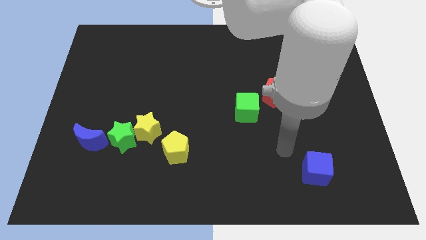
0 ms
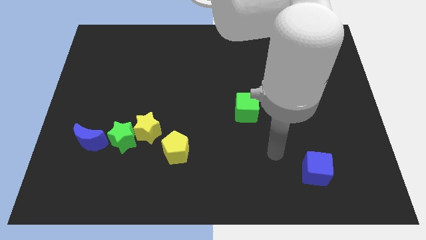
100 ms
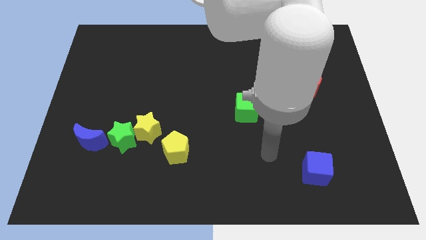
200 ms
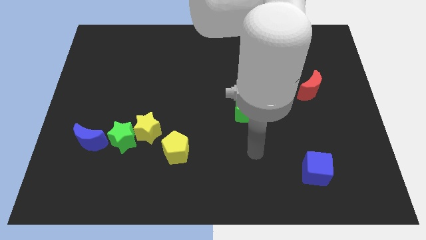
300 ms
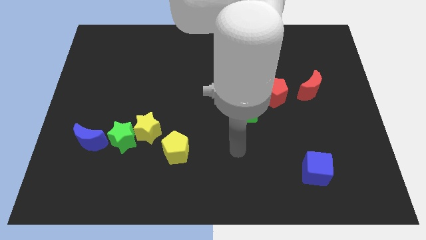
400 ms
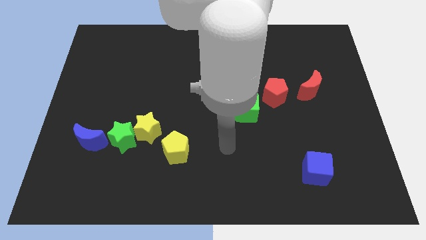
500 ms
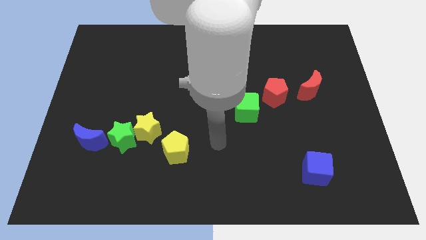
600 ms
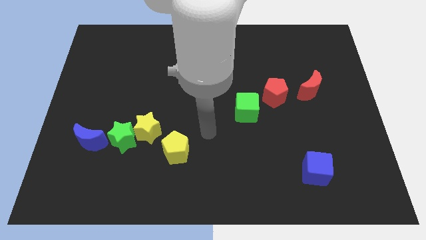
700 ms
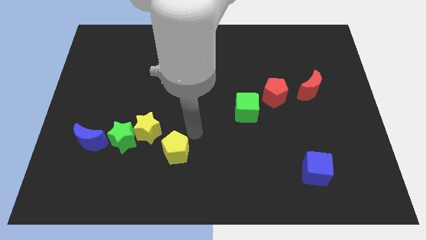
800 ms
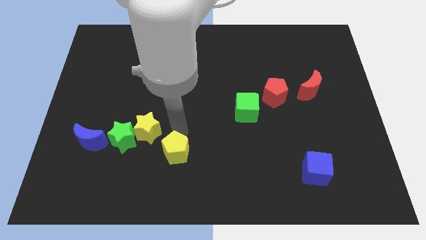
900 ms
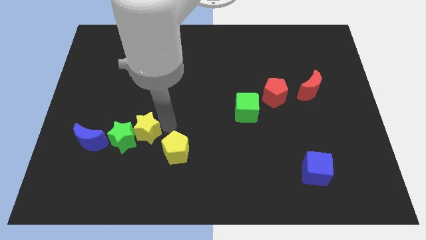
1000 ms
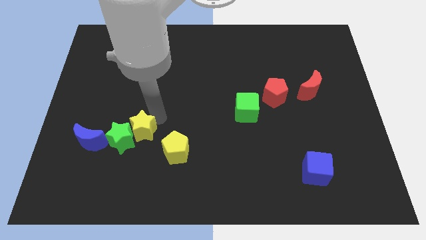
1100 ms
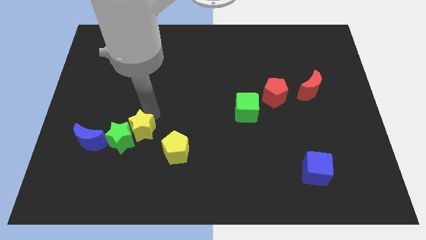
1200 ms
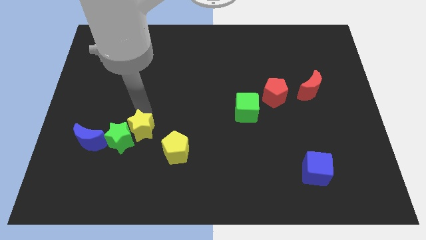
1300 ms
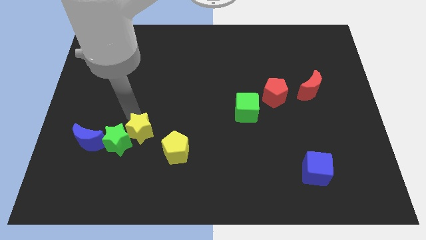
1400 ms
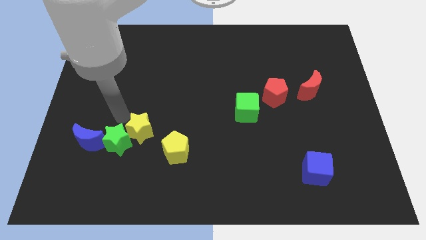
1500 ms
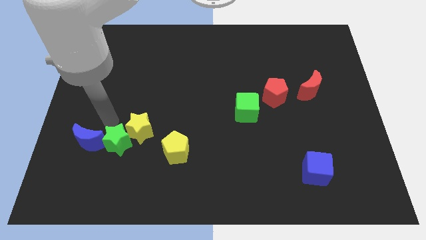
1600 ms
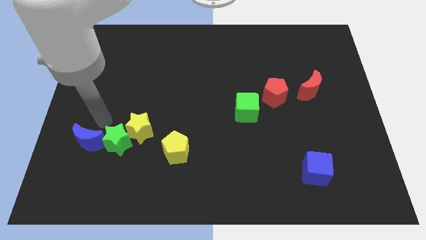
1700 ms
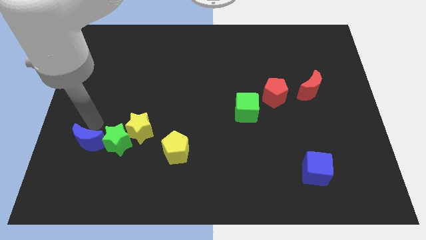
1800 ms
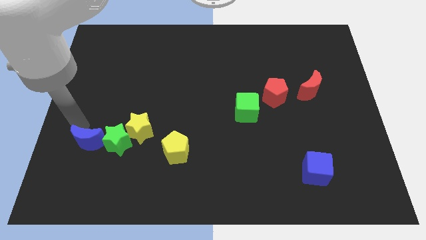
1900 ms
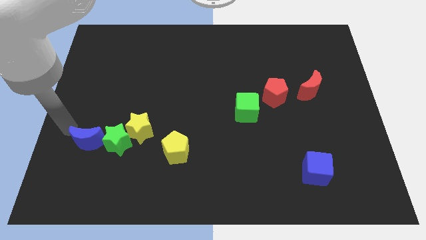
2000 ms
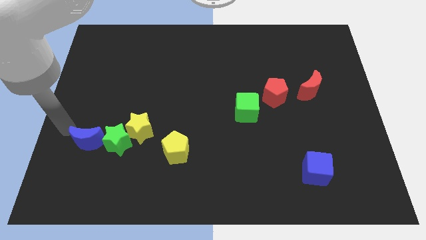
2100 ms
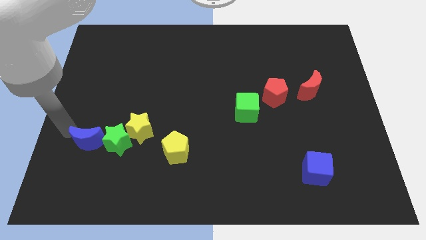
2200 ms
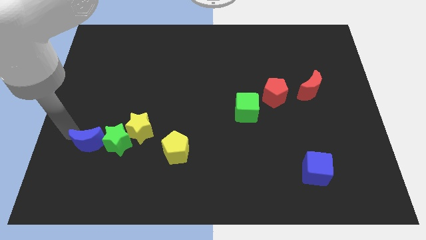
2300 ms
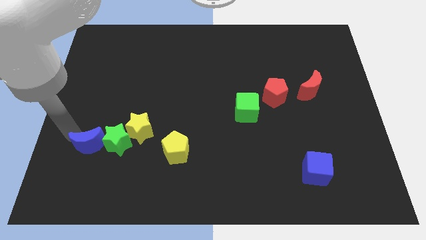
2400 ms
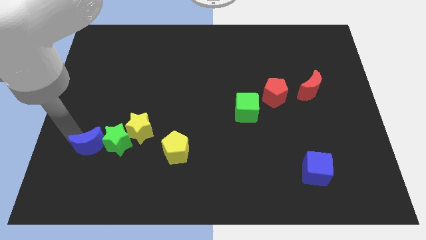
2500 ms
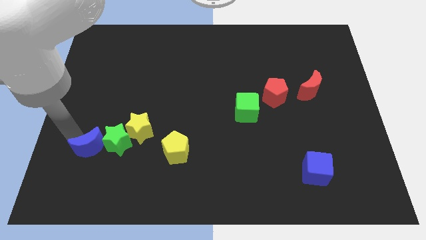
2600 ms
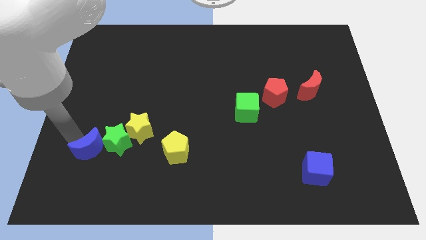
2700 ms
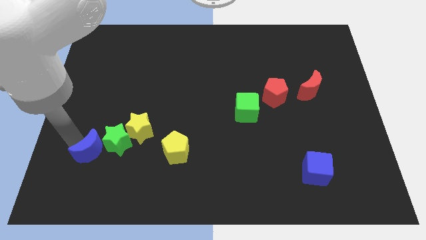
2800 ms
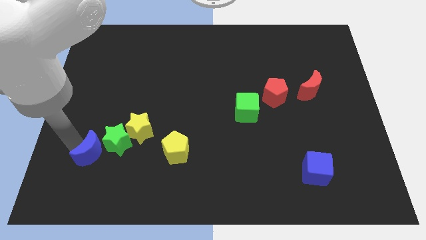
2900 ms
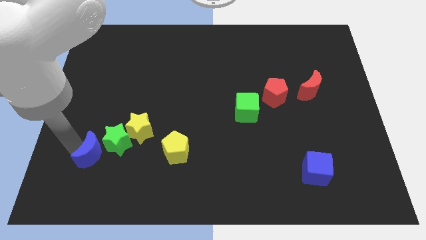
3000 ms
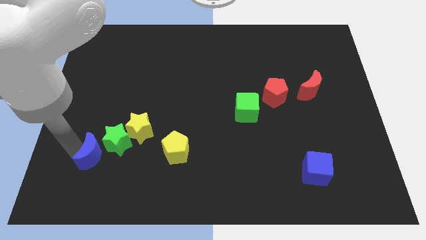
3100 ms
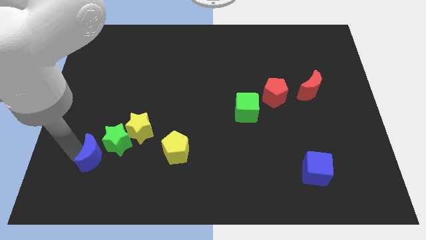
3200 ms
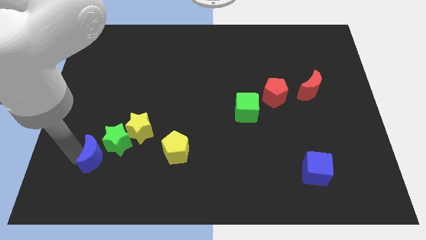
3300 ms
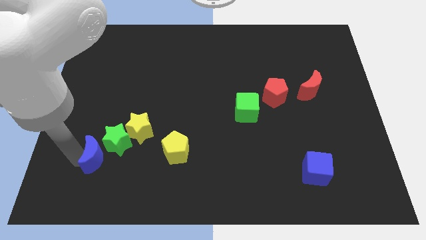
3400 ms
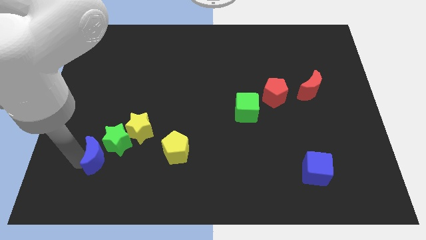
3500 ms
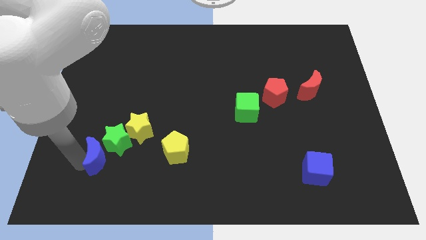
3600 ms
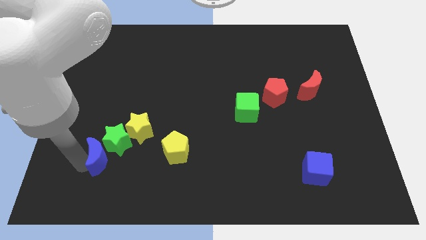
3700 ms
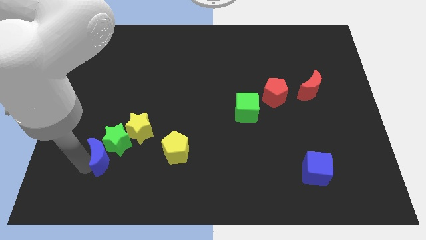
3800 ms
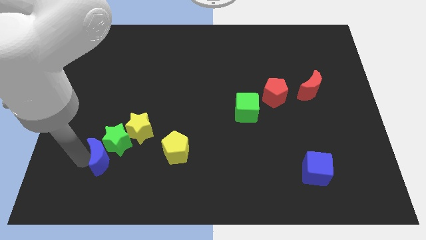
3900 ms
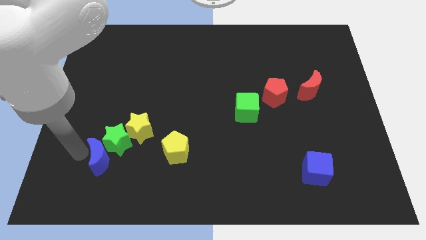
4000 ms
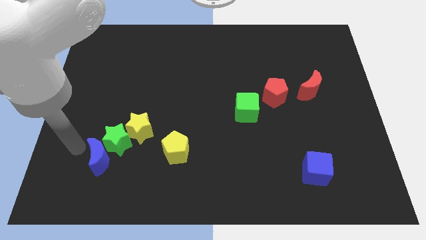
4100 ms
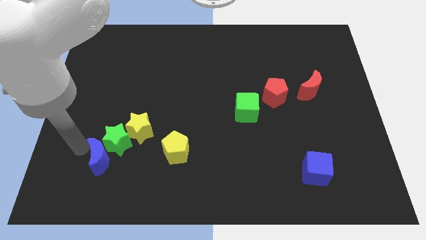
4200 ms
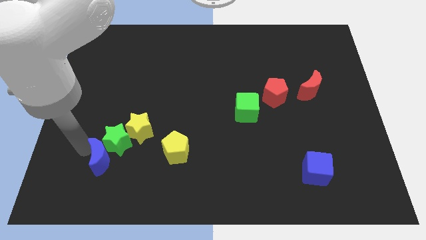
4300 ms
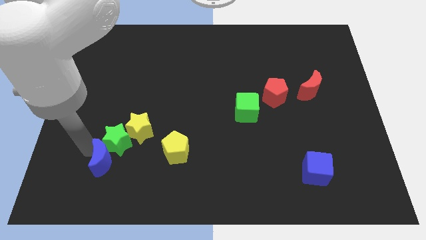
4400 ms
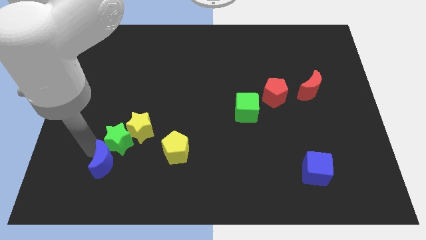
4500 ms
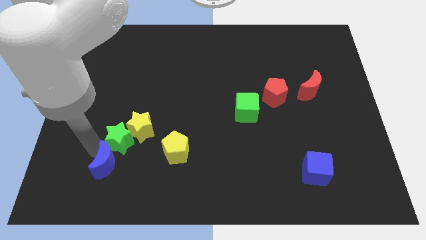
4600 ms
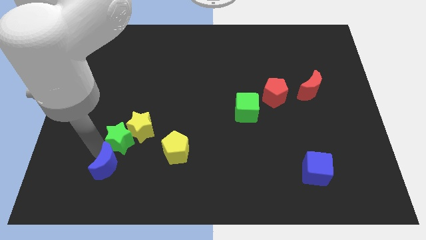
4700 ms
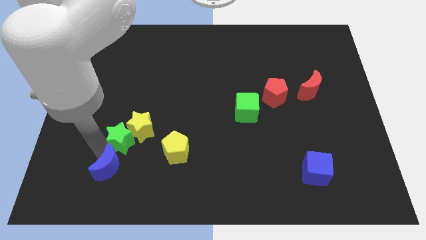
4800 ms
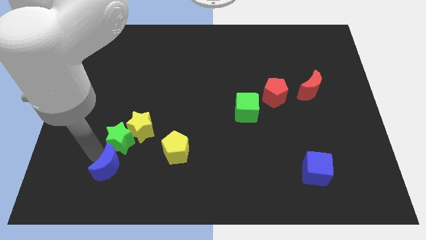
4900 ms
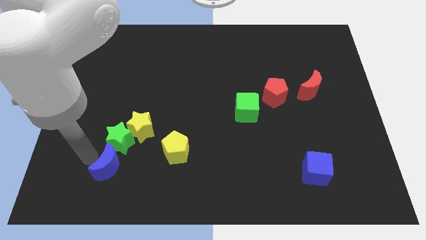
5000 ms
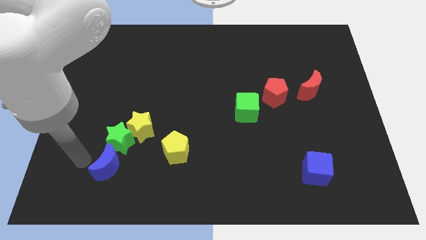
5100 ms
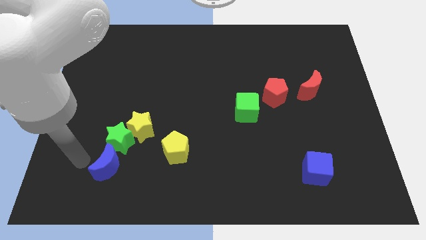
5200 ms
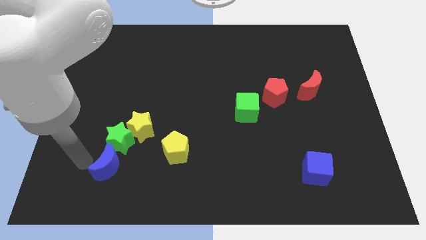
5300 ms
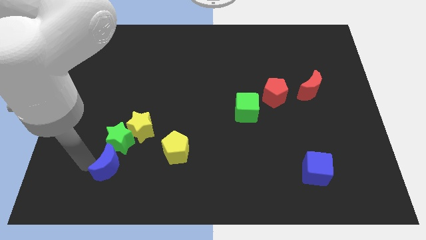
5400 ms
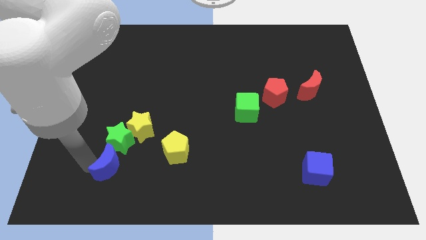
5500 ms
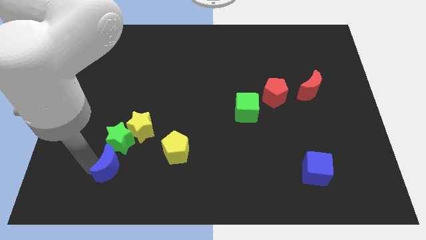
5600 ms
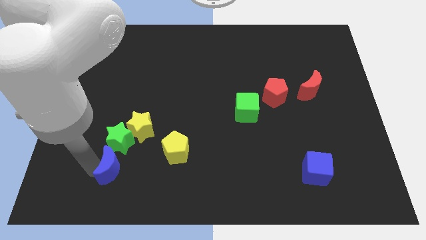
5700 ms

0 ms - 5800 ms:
push the blue moon to the bottom of the yellow star

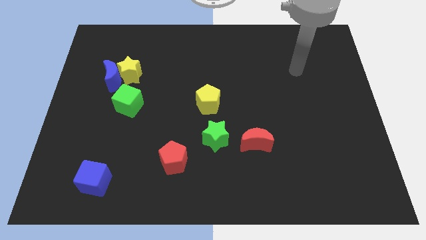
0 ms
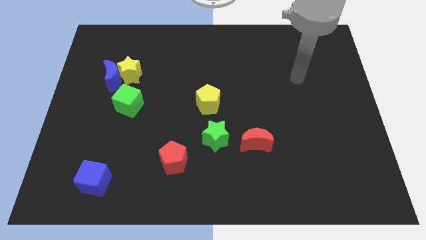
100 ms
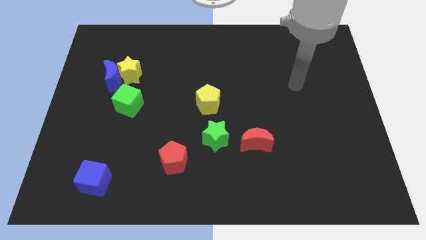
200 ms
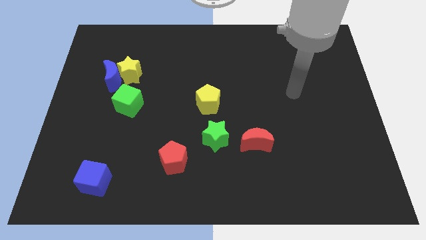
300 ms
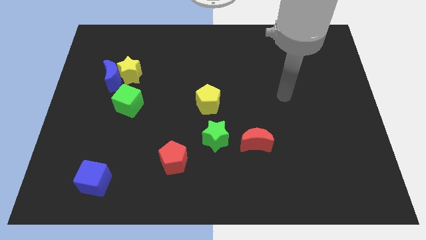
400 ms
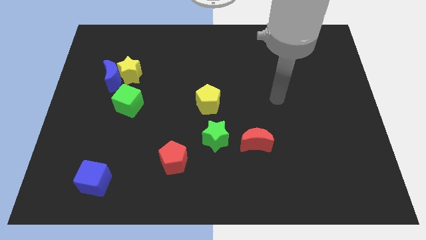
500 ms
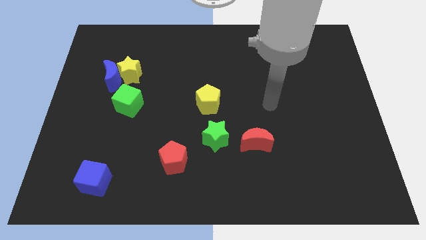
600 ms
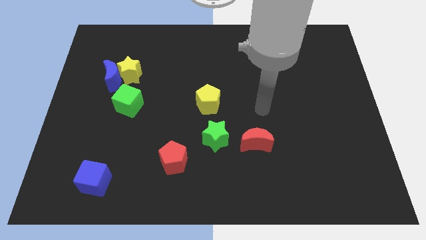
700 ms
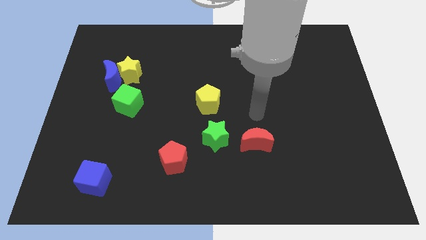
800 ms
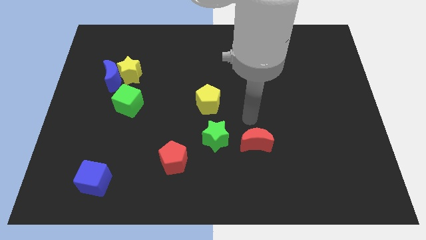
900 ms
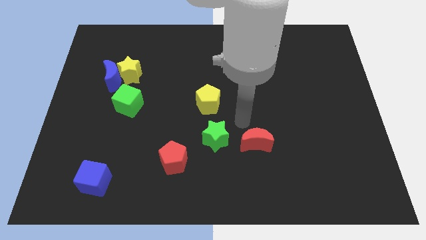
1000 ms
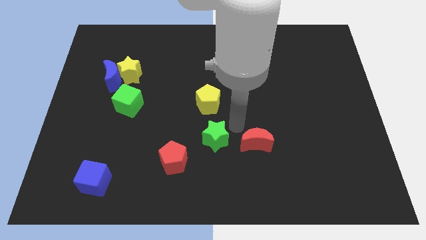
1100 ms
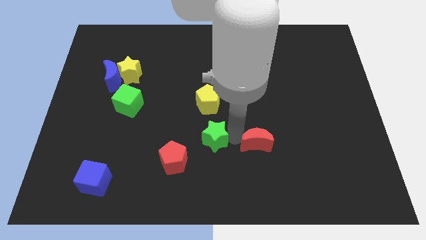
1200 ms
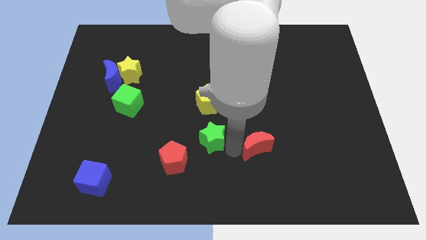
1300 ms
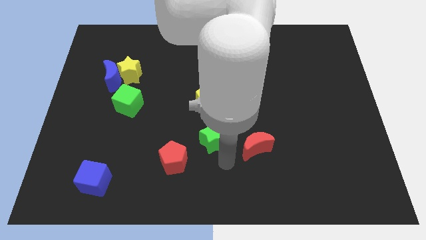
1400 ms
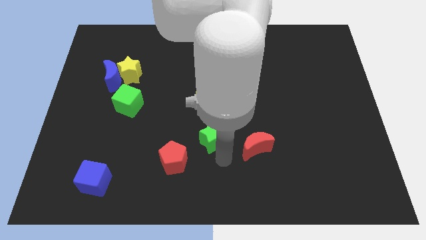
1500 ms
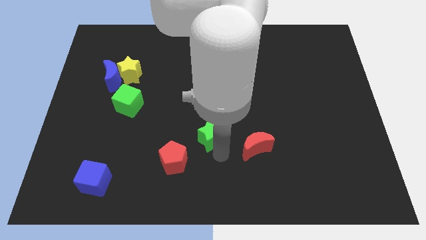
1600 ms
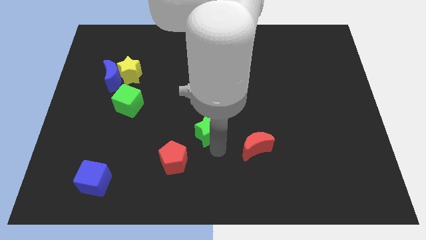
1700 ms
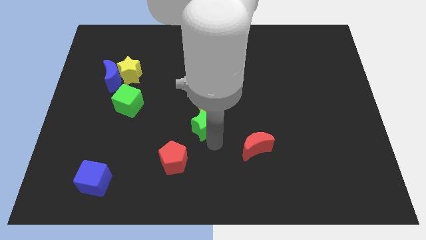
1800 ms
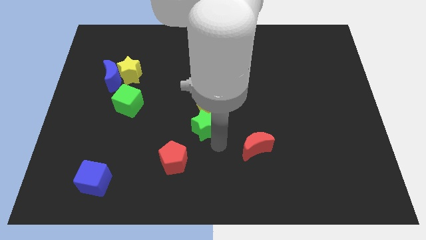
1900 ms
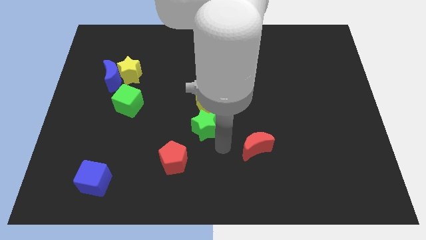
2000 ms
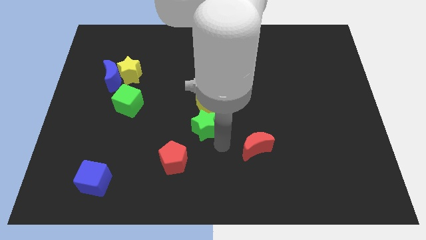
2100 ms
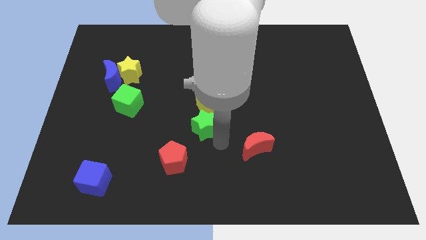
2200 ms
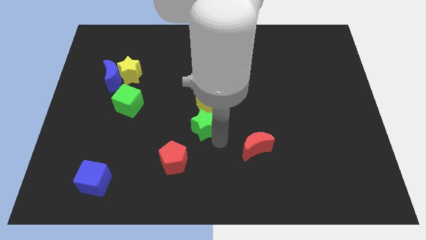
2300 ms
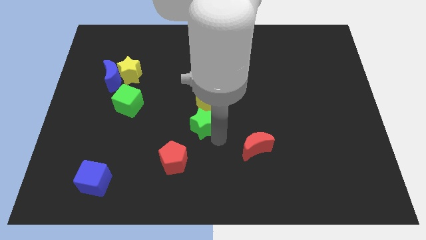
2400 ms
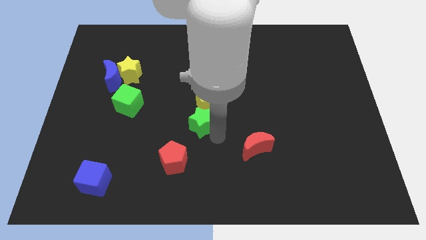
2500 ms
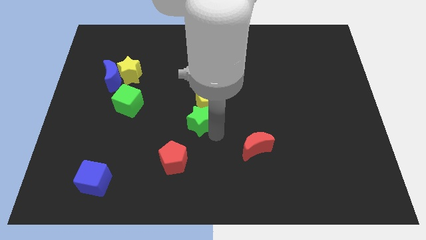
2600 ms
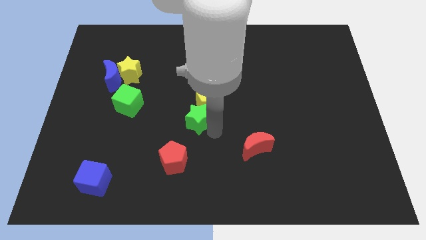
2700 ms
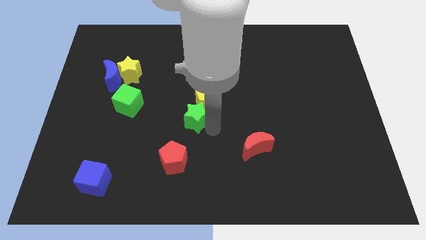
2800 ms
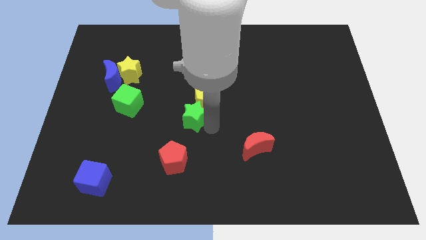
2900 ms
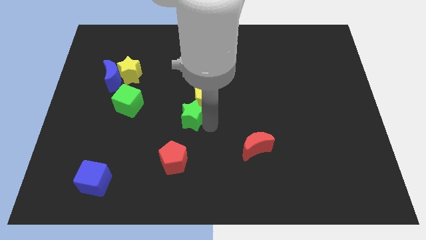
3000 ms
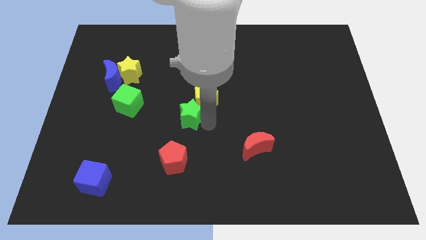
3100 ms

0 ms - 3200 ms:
slide the green star to the left side of the yellow pentagon
